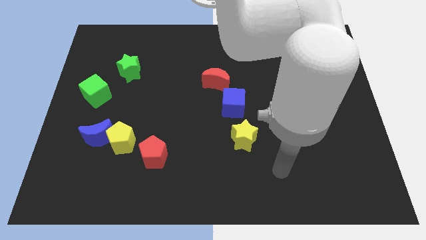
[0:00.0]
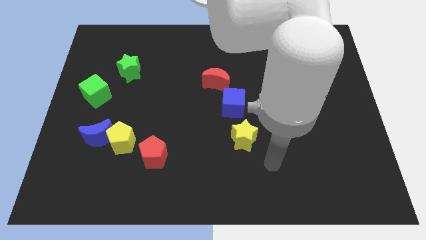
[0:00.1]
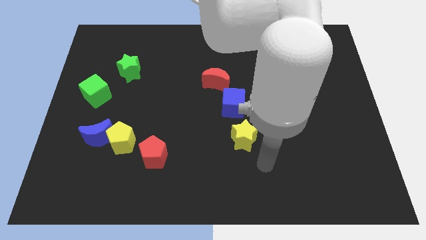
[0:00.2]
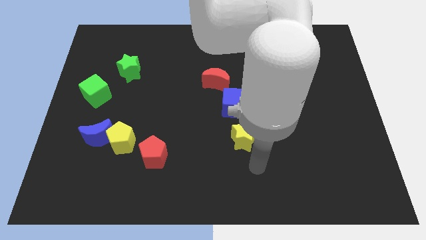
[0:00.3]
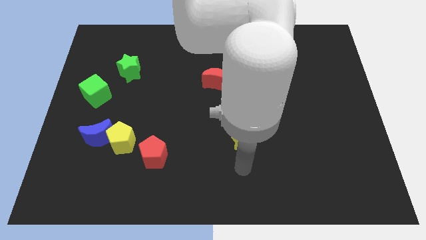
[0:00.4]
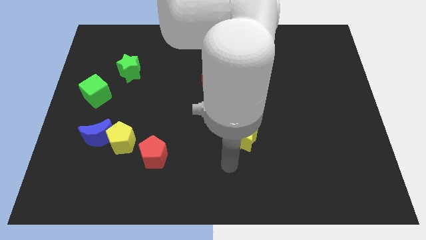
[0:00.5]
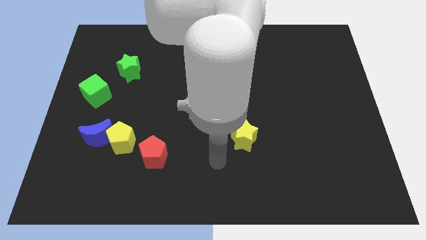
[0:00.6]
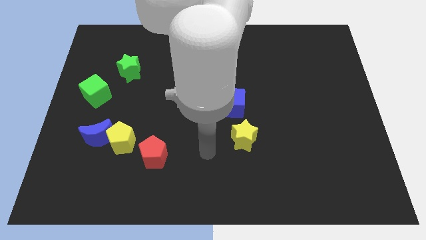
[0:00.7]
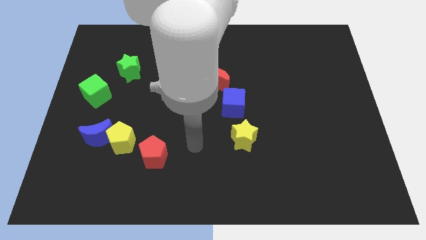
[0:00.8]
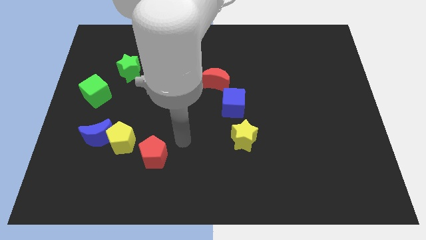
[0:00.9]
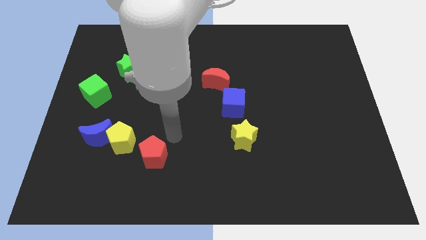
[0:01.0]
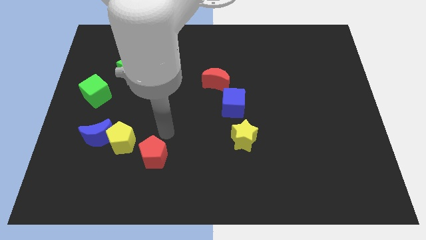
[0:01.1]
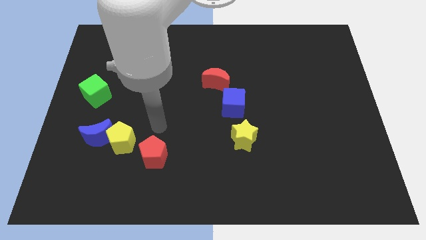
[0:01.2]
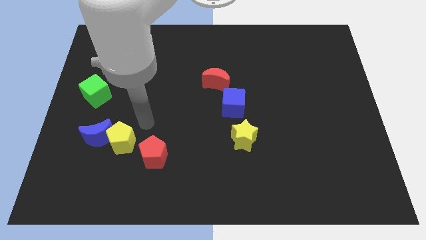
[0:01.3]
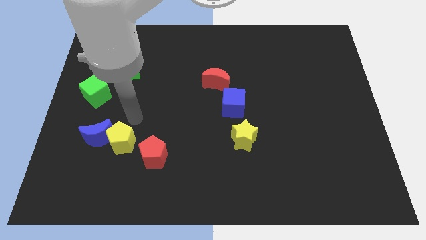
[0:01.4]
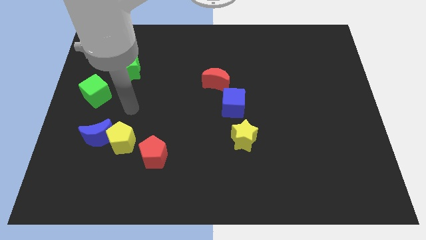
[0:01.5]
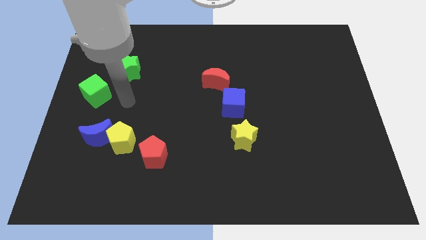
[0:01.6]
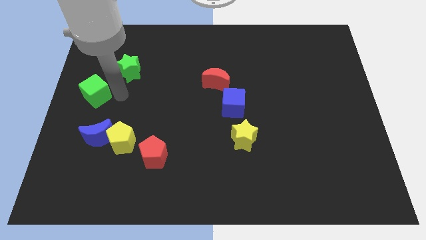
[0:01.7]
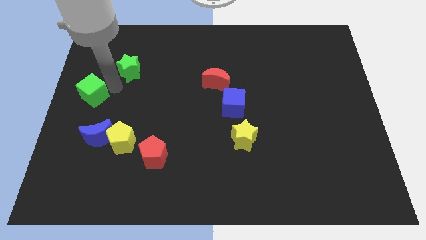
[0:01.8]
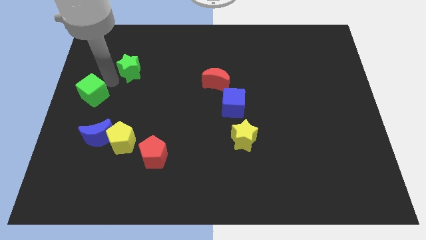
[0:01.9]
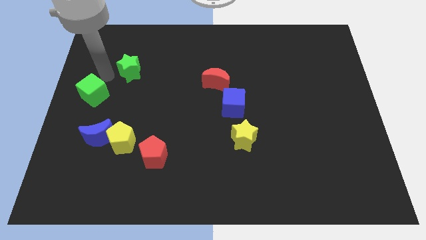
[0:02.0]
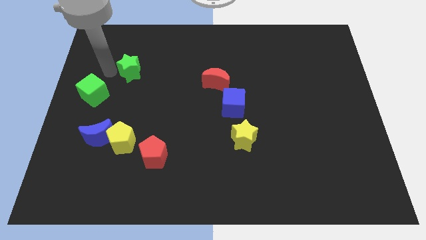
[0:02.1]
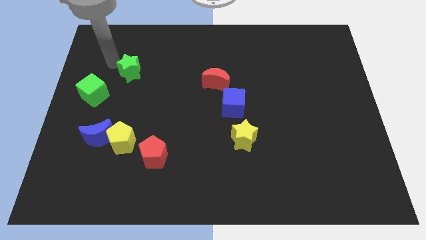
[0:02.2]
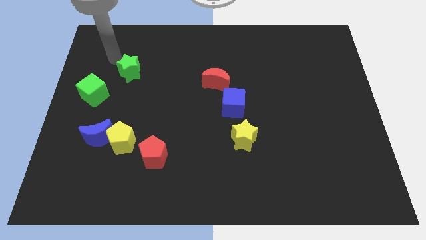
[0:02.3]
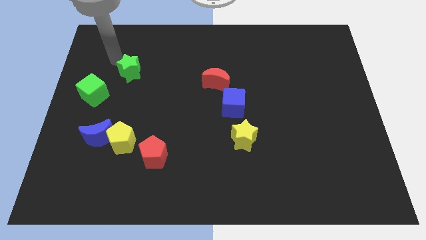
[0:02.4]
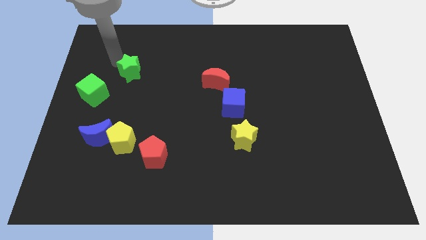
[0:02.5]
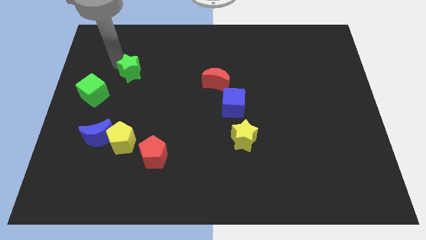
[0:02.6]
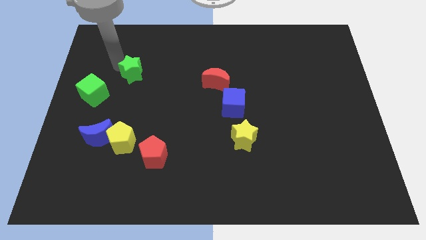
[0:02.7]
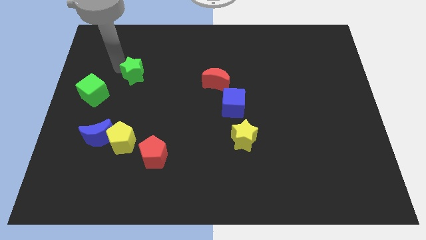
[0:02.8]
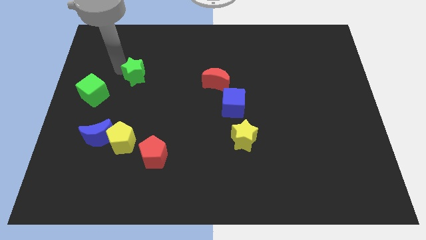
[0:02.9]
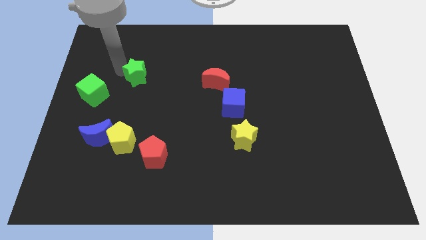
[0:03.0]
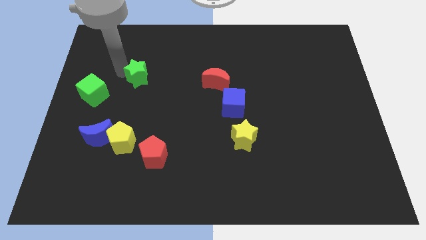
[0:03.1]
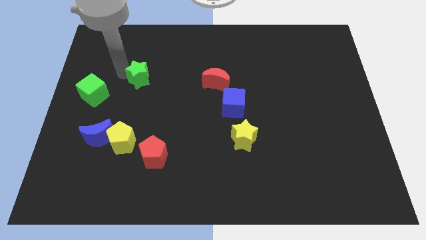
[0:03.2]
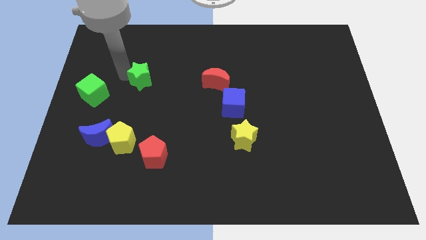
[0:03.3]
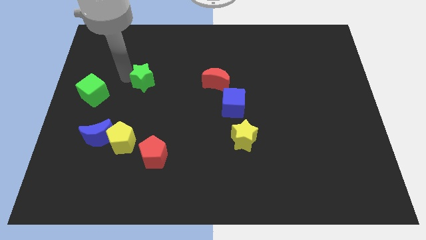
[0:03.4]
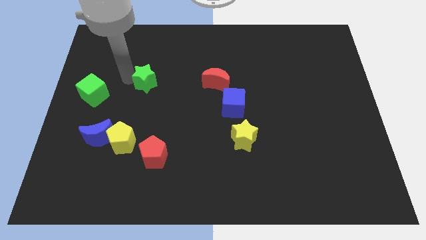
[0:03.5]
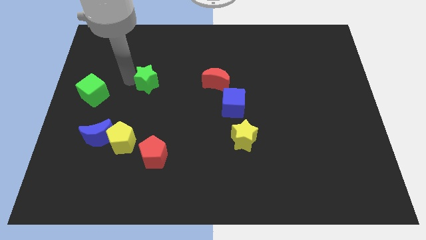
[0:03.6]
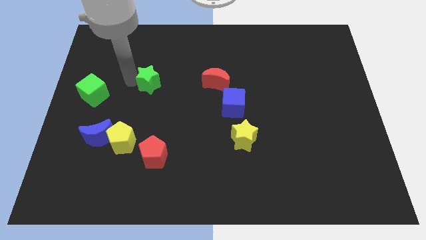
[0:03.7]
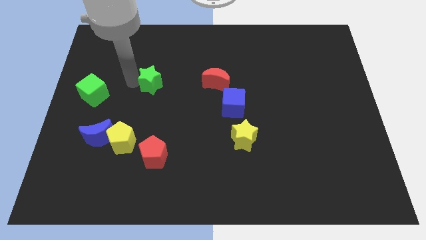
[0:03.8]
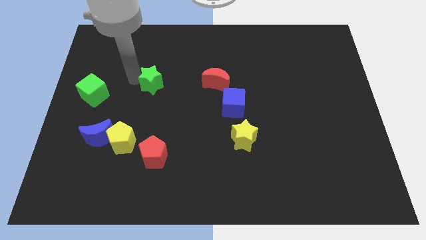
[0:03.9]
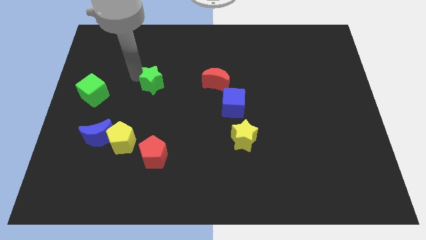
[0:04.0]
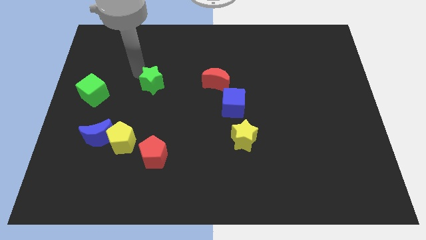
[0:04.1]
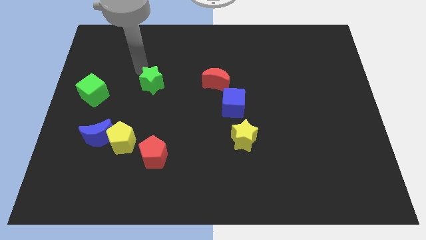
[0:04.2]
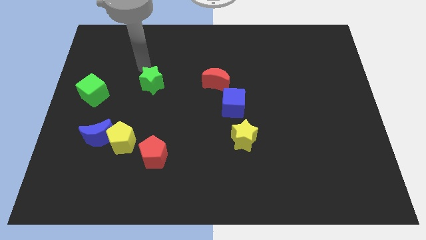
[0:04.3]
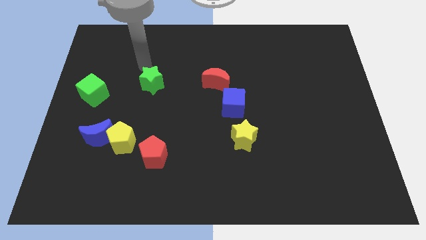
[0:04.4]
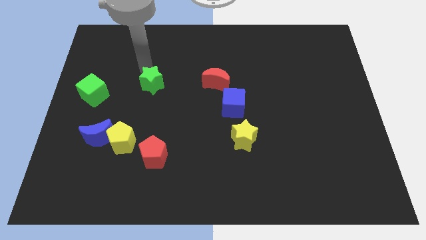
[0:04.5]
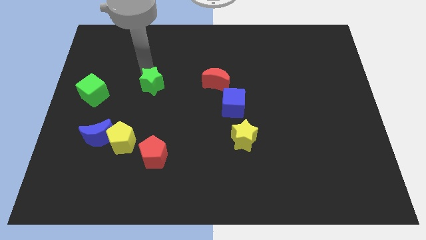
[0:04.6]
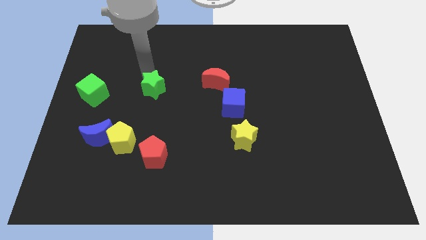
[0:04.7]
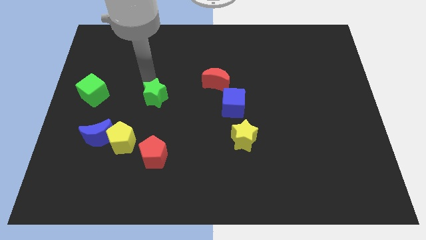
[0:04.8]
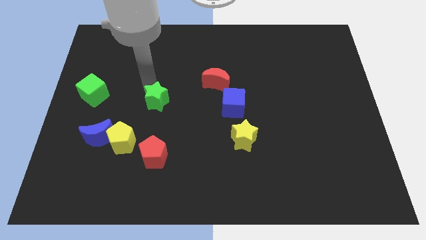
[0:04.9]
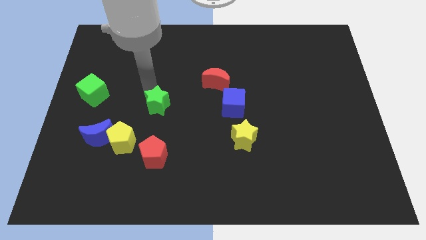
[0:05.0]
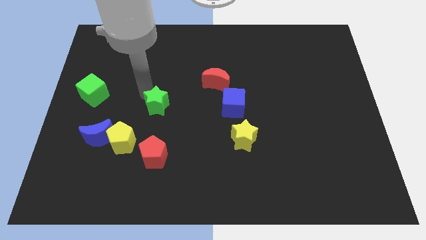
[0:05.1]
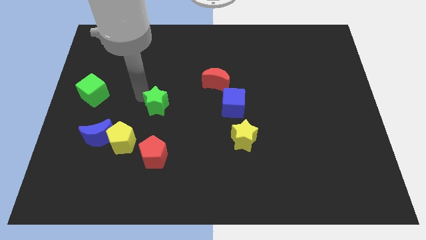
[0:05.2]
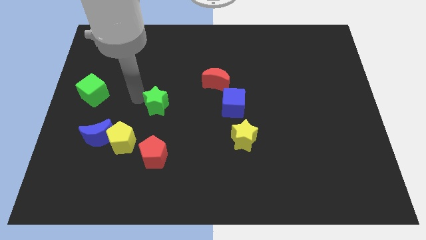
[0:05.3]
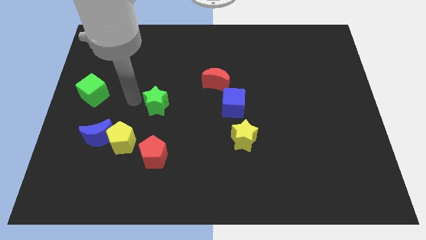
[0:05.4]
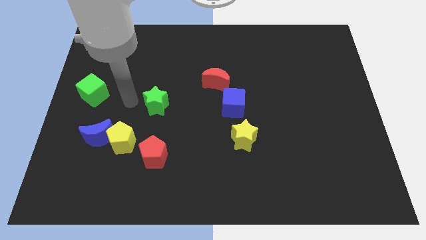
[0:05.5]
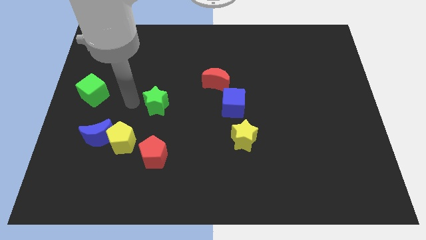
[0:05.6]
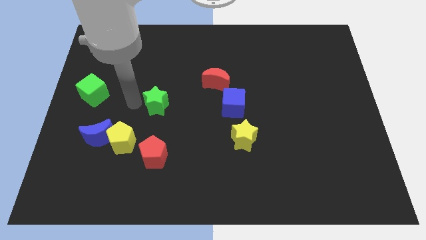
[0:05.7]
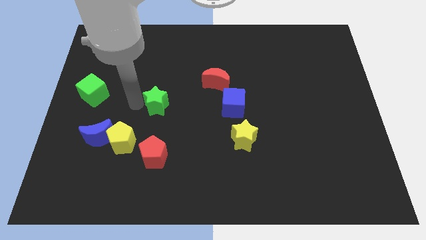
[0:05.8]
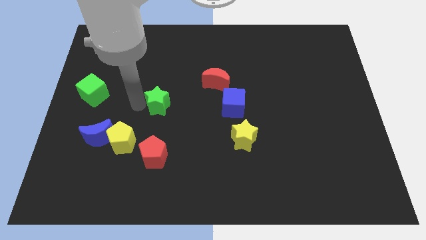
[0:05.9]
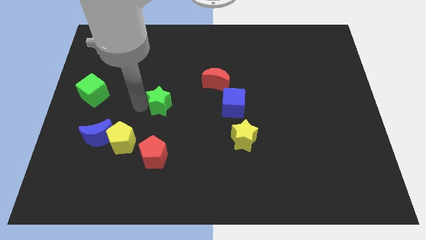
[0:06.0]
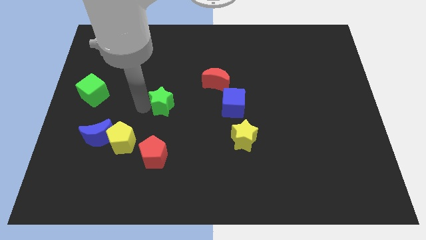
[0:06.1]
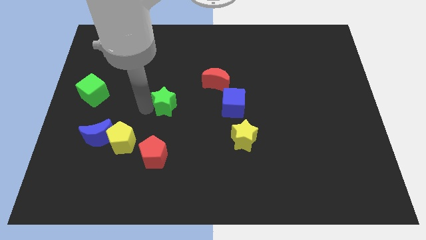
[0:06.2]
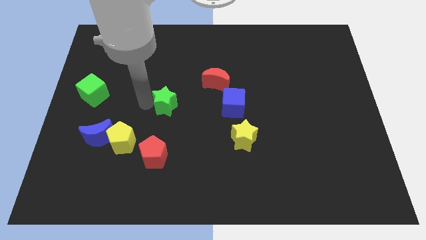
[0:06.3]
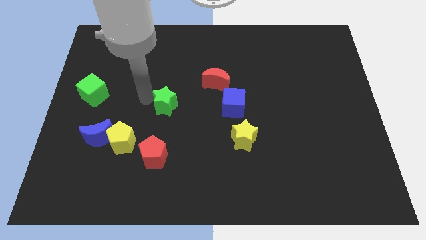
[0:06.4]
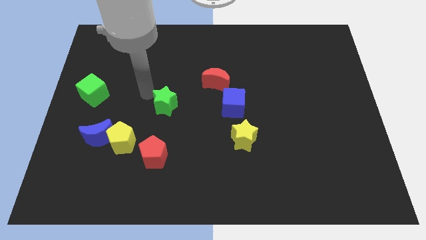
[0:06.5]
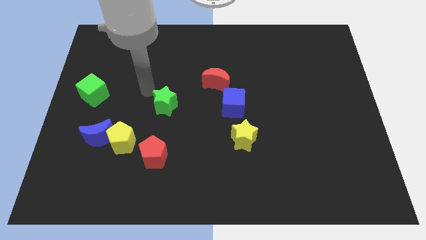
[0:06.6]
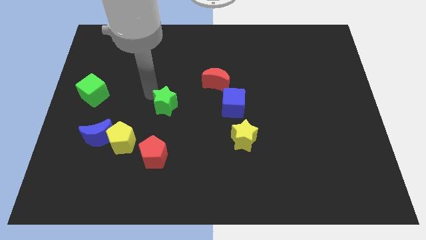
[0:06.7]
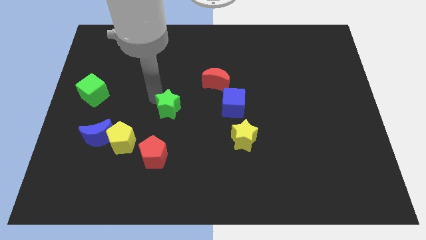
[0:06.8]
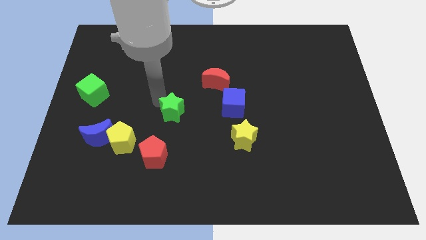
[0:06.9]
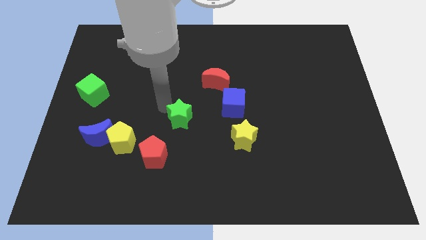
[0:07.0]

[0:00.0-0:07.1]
move the green star down and then right

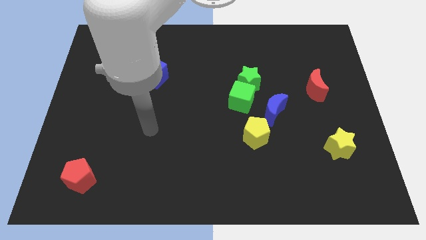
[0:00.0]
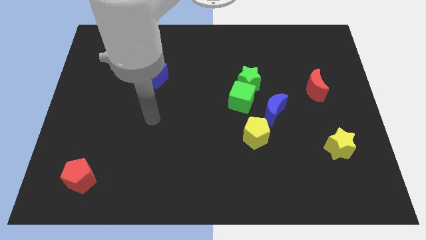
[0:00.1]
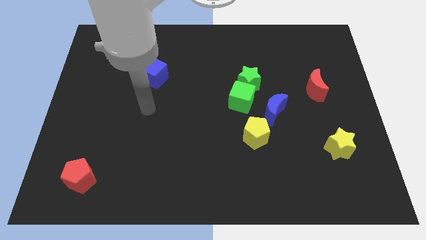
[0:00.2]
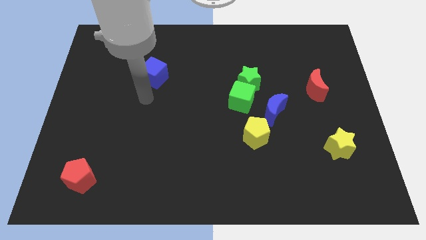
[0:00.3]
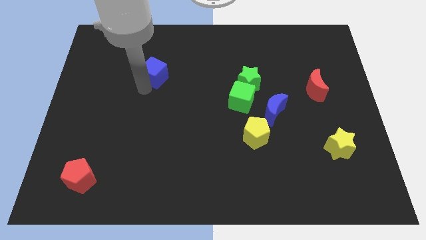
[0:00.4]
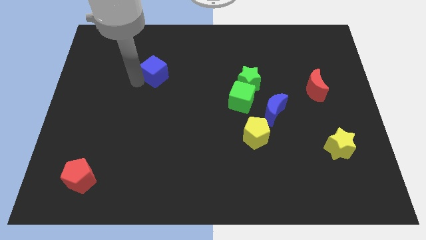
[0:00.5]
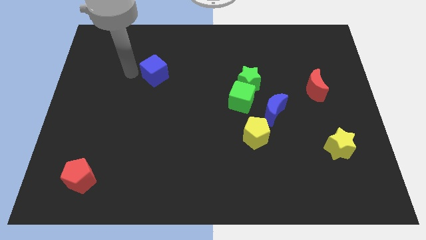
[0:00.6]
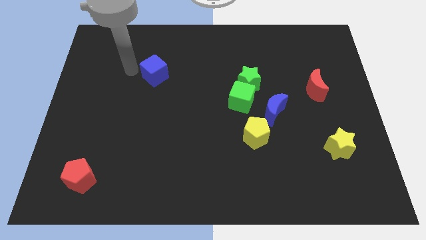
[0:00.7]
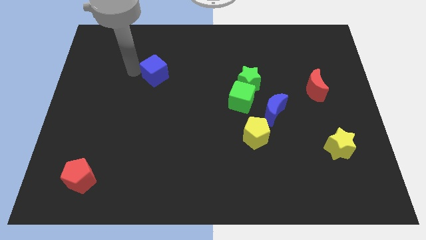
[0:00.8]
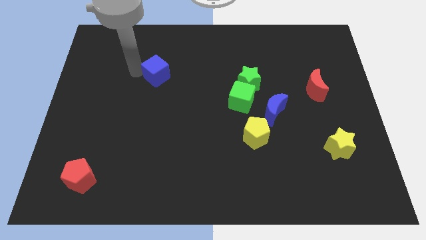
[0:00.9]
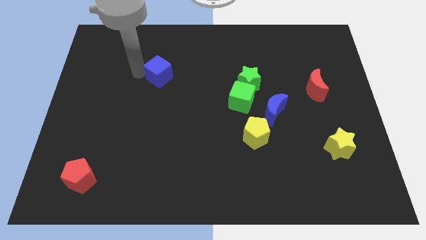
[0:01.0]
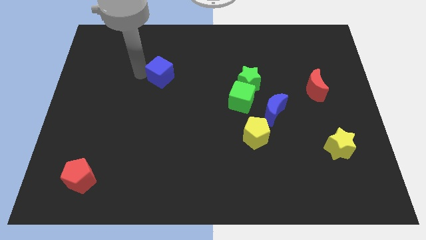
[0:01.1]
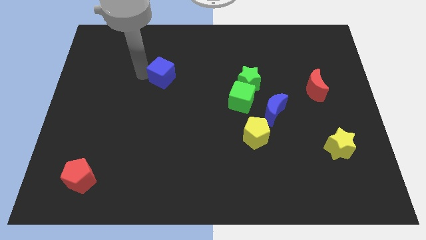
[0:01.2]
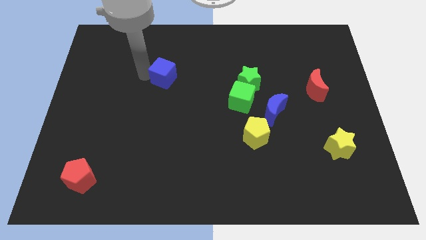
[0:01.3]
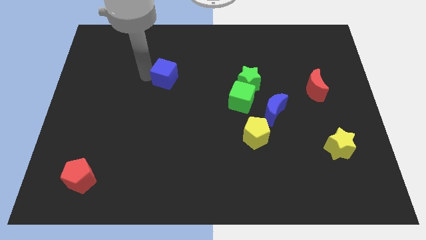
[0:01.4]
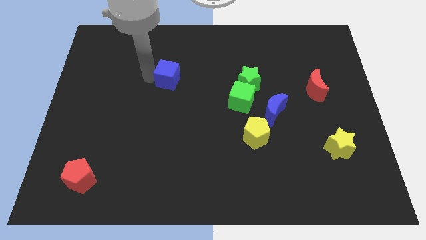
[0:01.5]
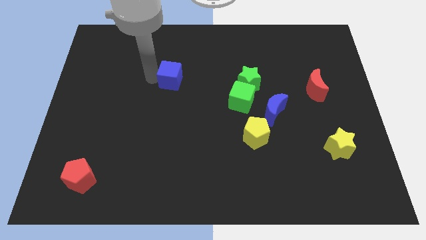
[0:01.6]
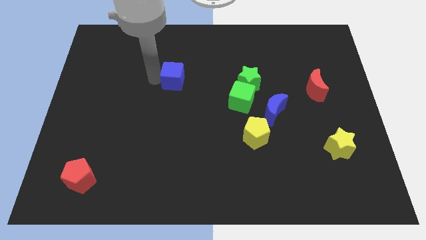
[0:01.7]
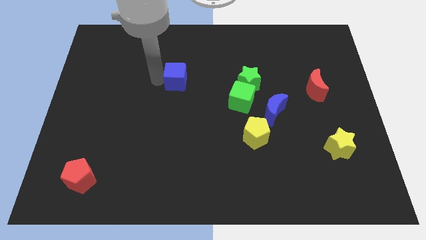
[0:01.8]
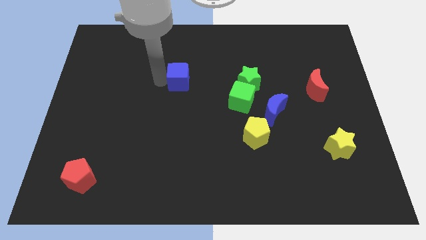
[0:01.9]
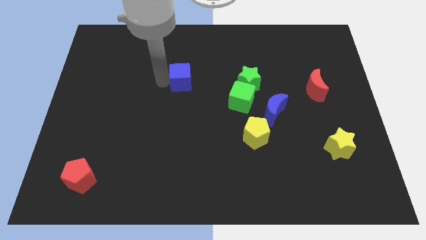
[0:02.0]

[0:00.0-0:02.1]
slightly move the blue cube to the right
